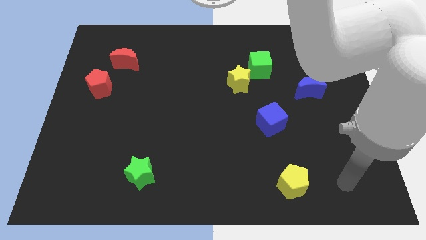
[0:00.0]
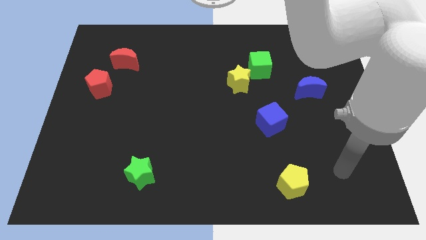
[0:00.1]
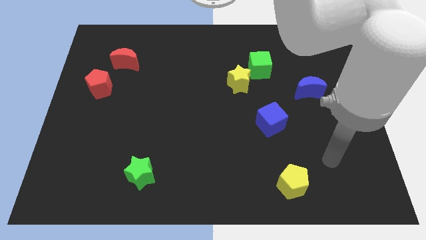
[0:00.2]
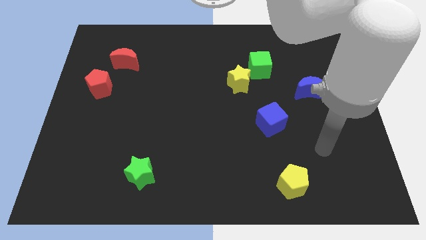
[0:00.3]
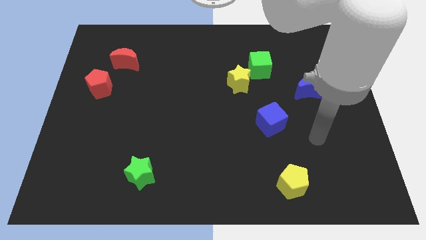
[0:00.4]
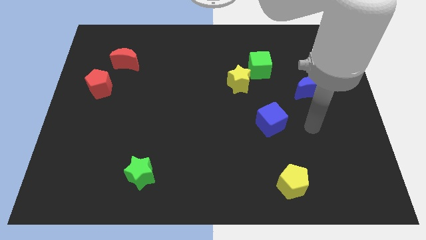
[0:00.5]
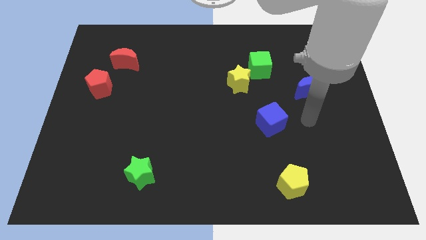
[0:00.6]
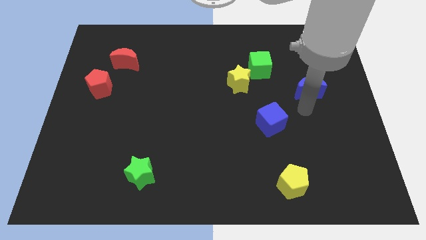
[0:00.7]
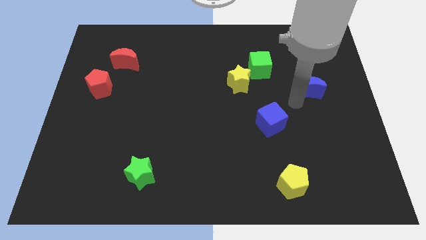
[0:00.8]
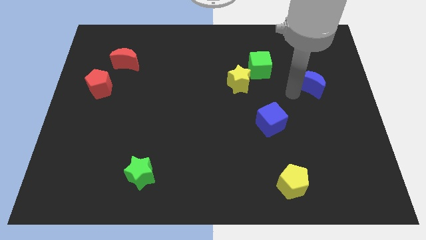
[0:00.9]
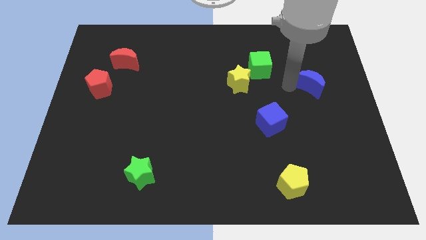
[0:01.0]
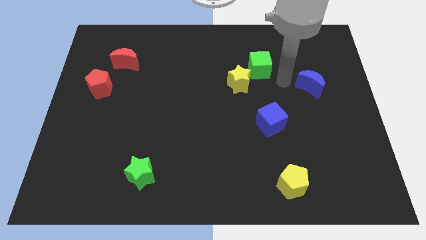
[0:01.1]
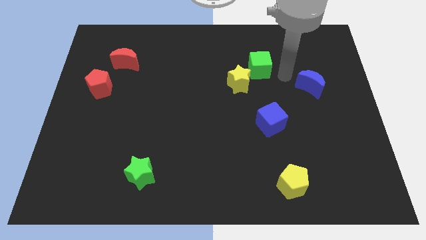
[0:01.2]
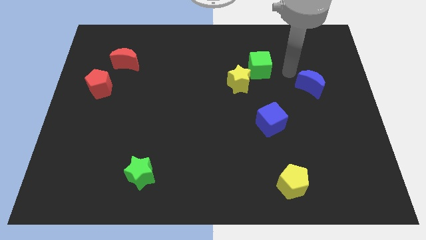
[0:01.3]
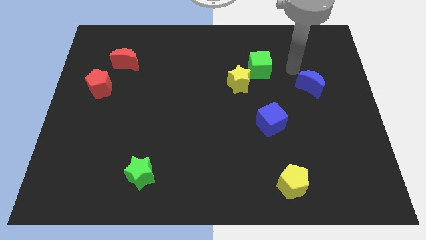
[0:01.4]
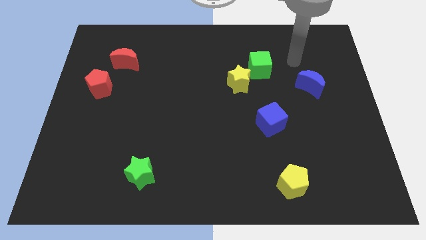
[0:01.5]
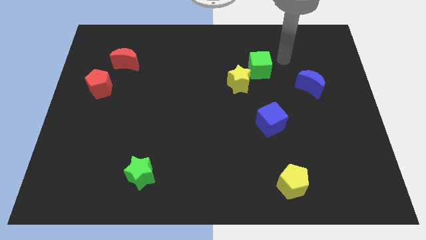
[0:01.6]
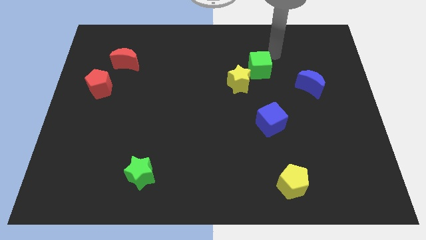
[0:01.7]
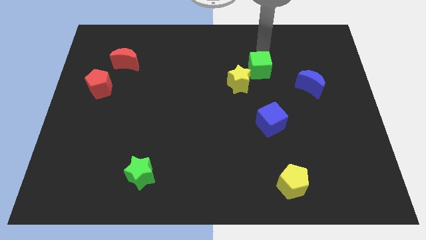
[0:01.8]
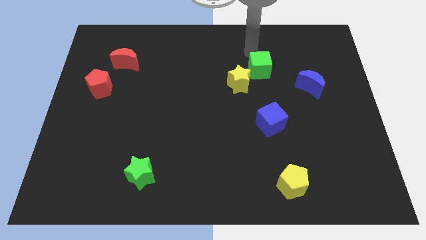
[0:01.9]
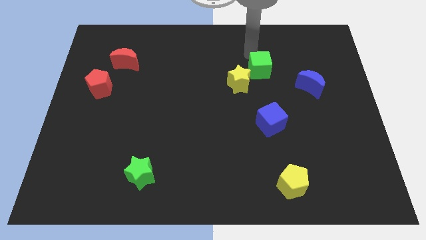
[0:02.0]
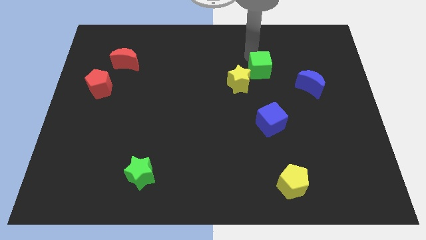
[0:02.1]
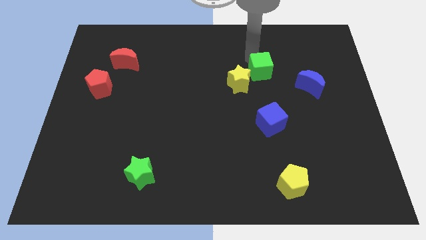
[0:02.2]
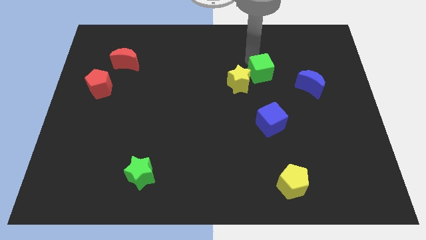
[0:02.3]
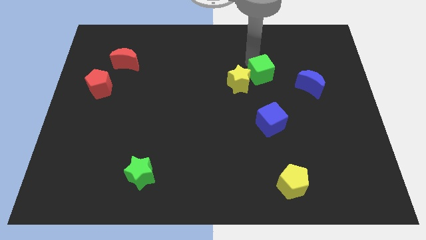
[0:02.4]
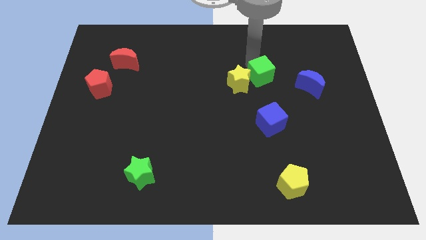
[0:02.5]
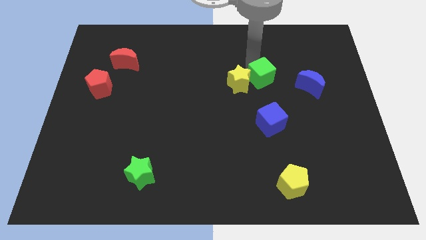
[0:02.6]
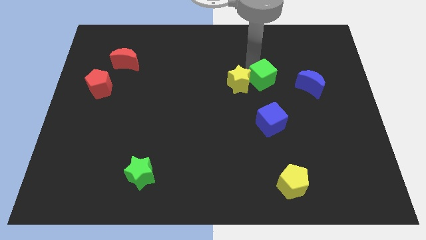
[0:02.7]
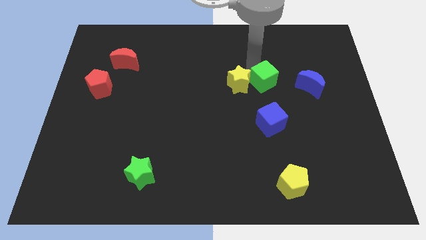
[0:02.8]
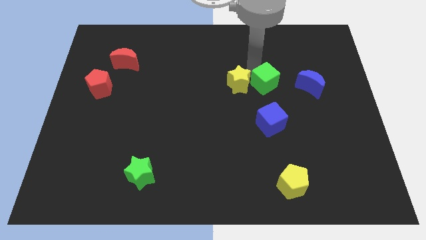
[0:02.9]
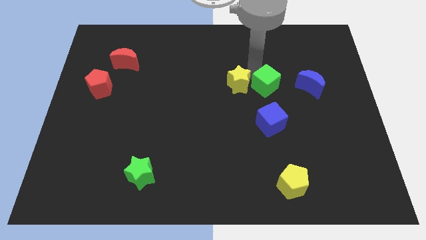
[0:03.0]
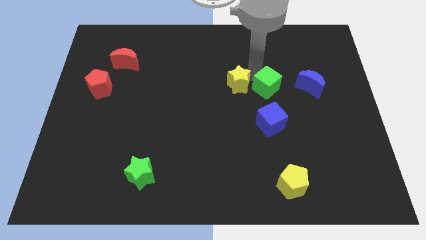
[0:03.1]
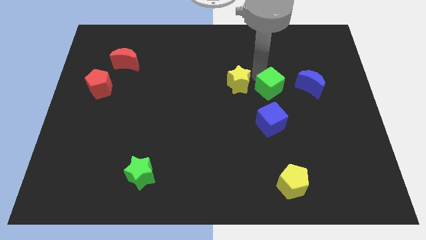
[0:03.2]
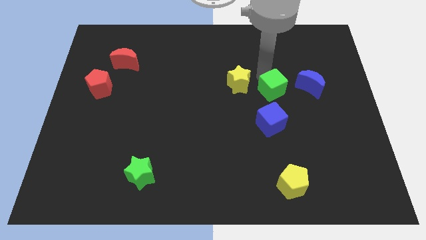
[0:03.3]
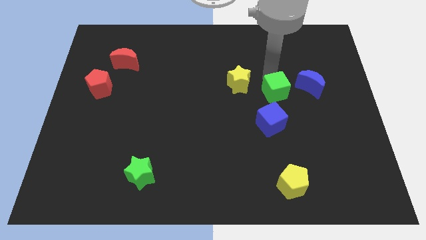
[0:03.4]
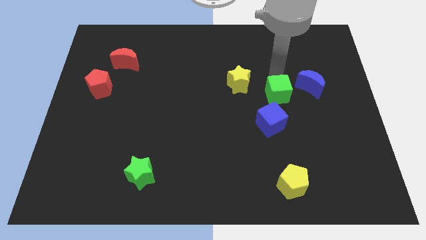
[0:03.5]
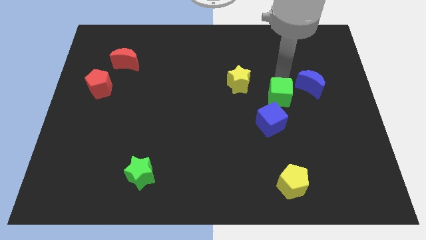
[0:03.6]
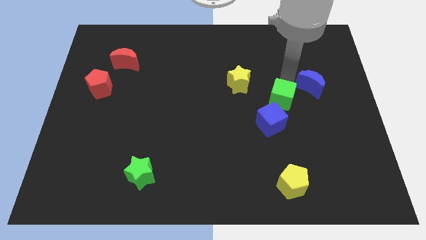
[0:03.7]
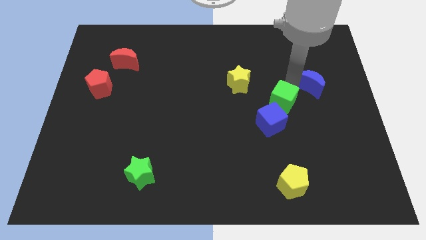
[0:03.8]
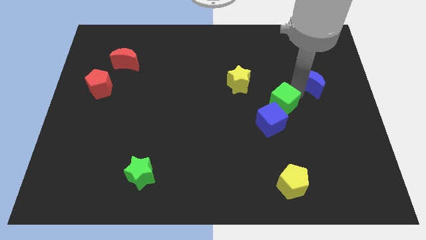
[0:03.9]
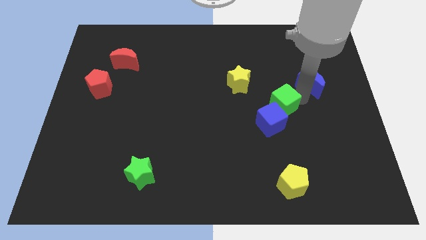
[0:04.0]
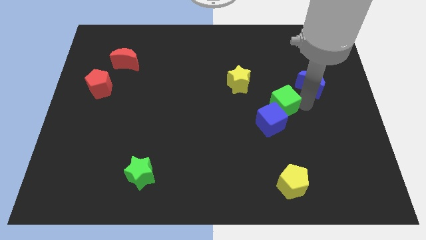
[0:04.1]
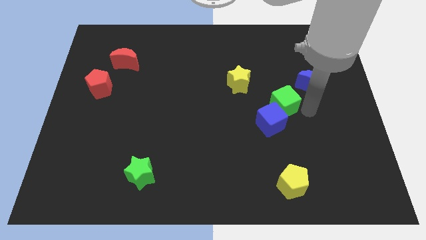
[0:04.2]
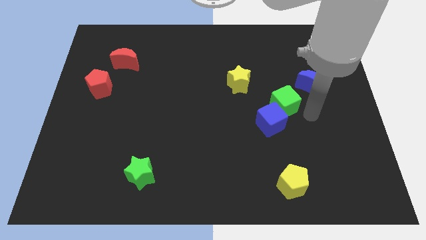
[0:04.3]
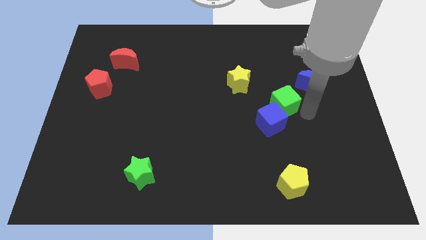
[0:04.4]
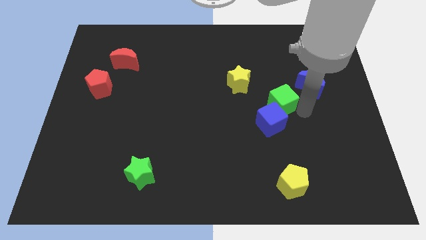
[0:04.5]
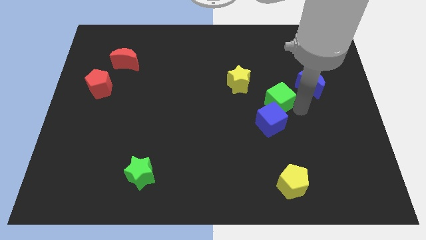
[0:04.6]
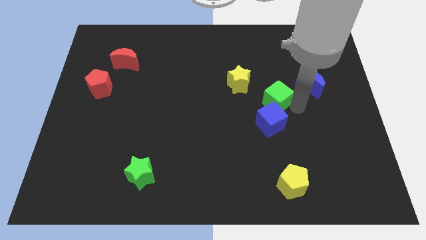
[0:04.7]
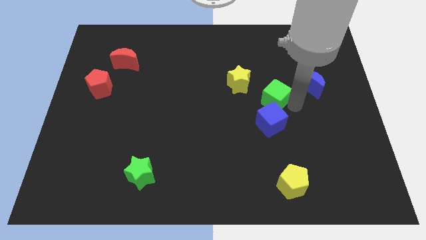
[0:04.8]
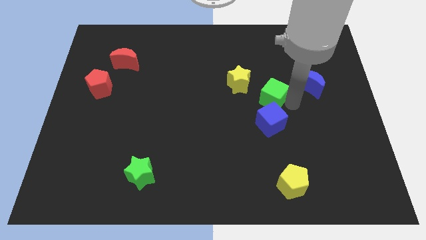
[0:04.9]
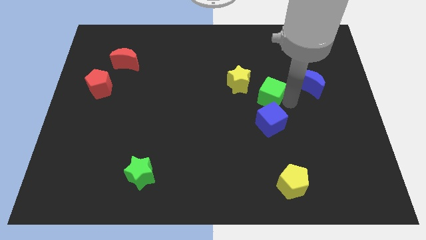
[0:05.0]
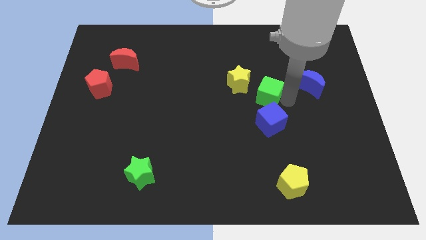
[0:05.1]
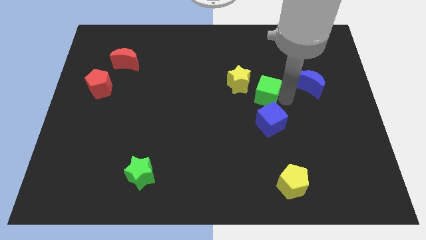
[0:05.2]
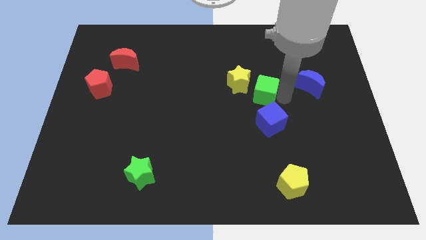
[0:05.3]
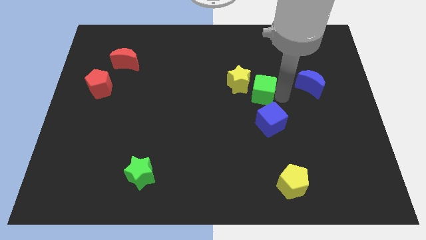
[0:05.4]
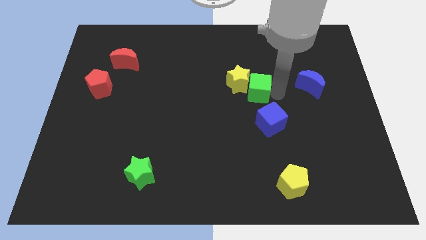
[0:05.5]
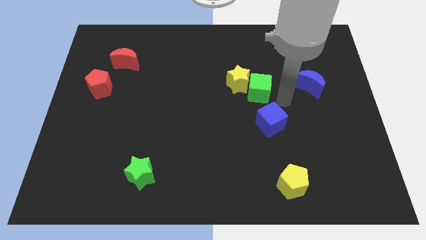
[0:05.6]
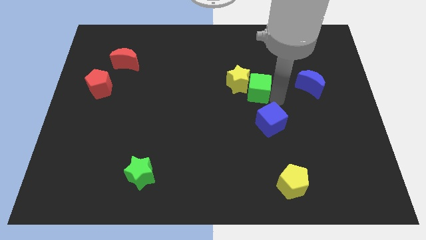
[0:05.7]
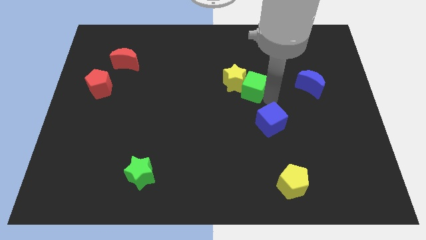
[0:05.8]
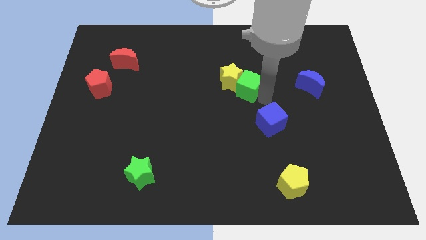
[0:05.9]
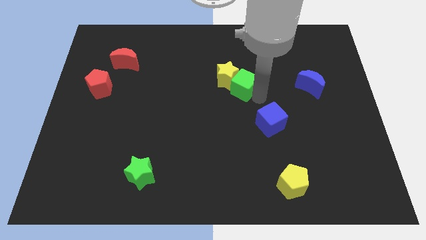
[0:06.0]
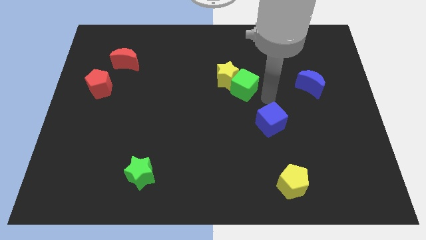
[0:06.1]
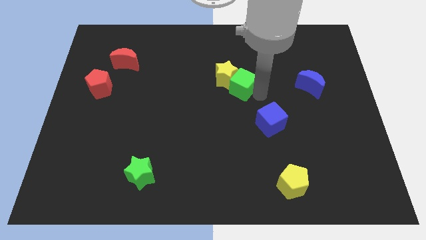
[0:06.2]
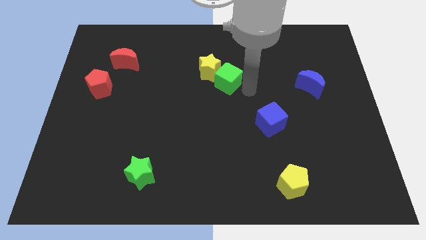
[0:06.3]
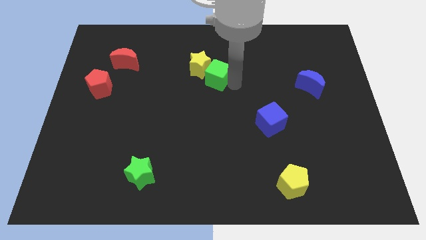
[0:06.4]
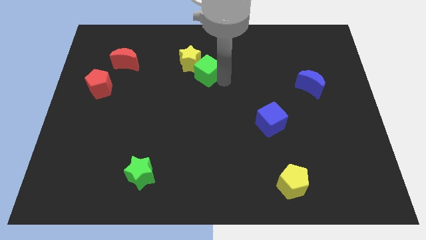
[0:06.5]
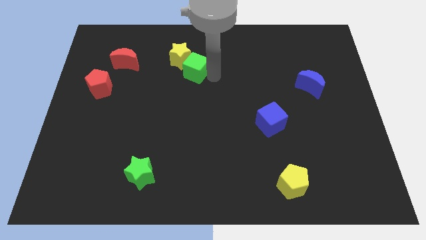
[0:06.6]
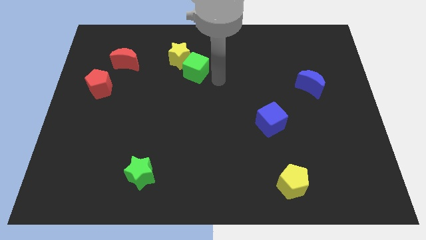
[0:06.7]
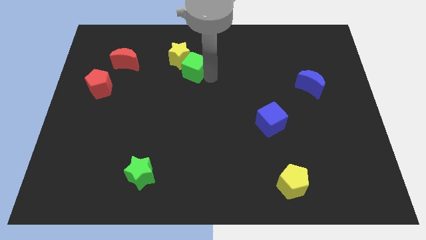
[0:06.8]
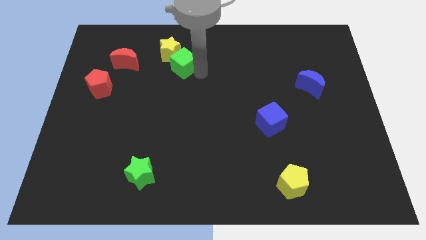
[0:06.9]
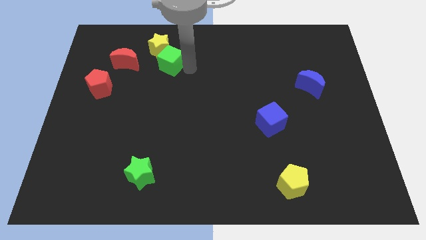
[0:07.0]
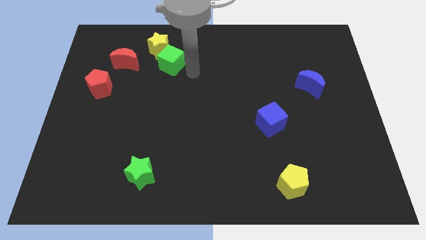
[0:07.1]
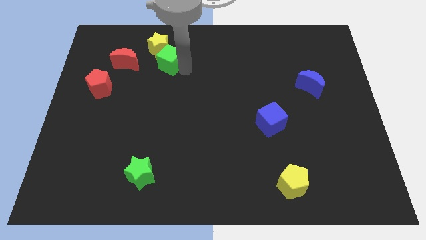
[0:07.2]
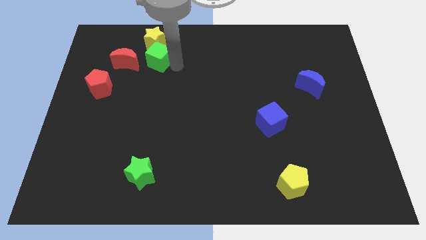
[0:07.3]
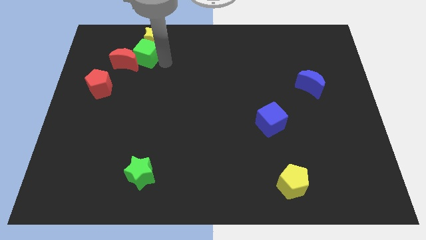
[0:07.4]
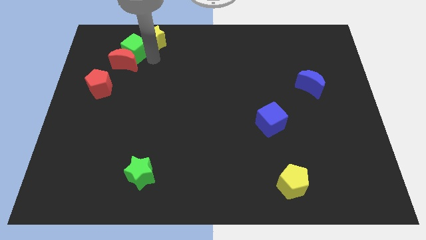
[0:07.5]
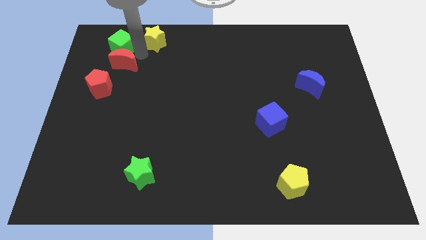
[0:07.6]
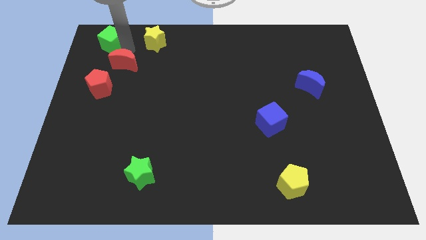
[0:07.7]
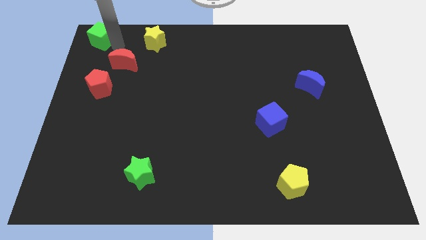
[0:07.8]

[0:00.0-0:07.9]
put the green cube to the top left
